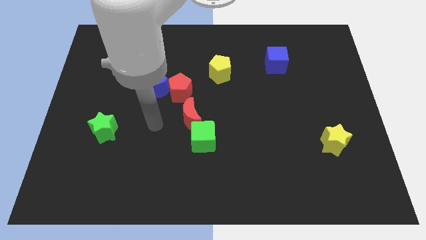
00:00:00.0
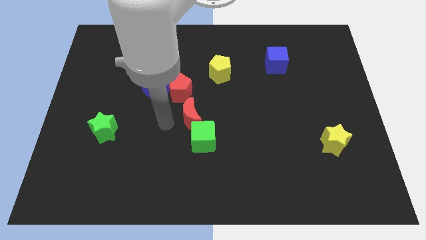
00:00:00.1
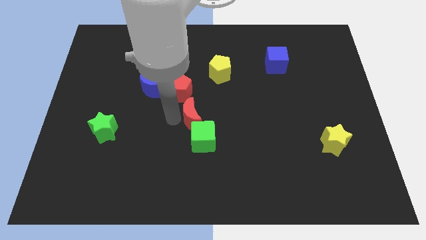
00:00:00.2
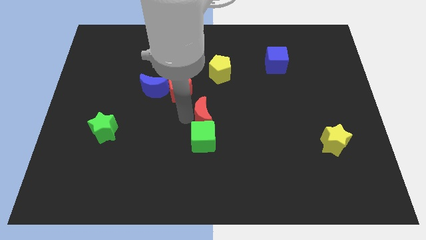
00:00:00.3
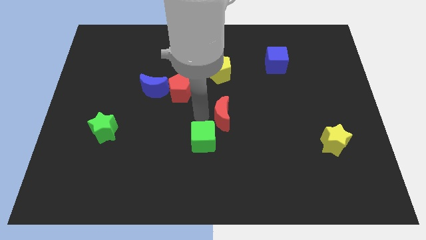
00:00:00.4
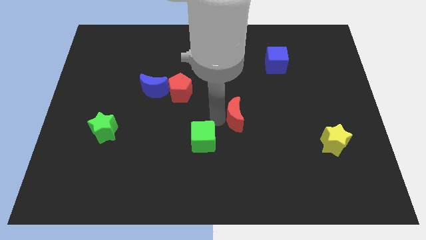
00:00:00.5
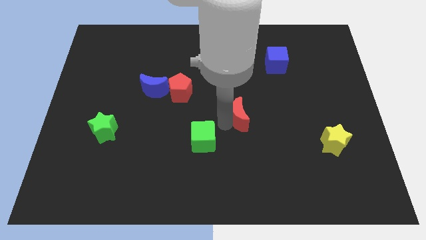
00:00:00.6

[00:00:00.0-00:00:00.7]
move the green cube away from the red moon

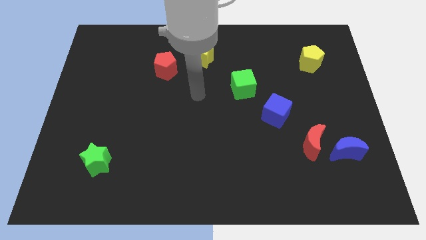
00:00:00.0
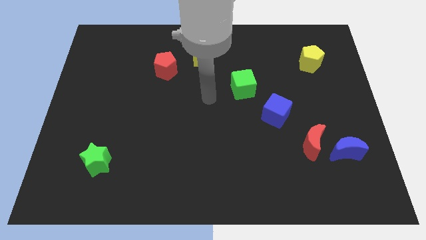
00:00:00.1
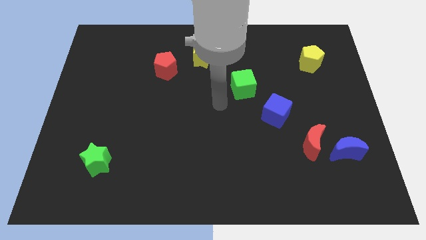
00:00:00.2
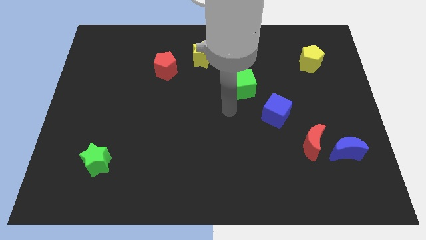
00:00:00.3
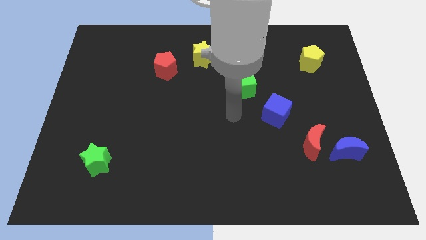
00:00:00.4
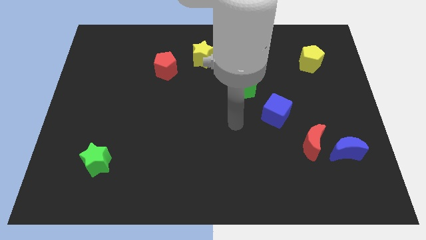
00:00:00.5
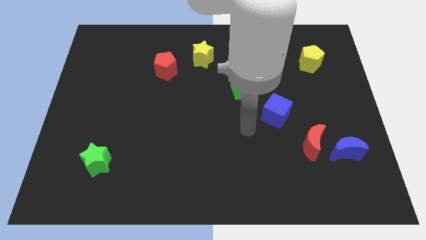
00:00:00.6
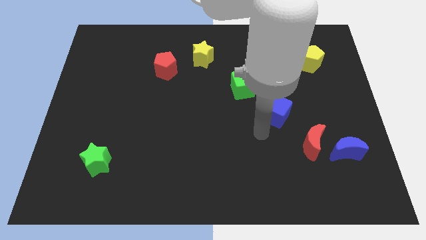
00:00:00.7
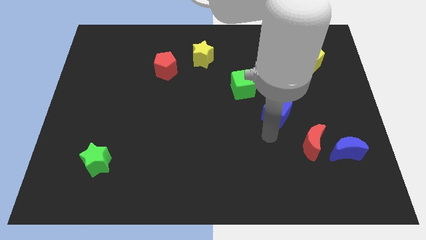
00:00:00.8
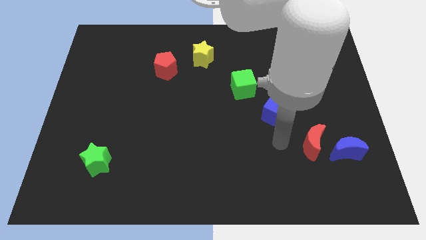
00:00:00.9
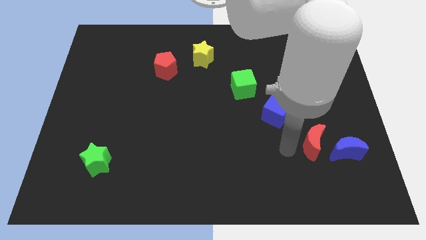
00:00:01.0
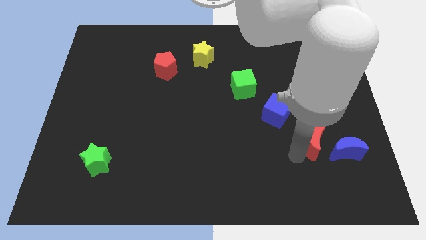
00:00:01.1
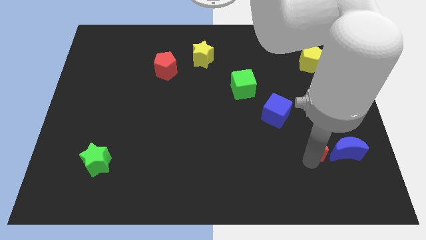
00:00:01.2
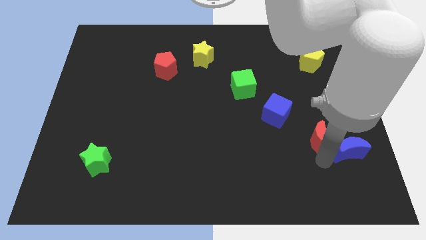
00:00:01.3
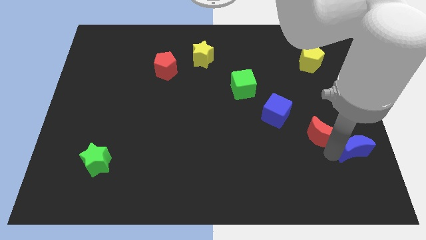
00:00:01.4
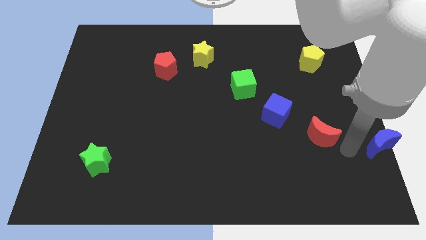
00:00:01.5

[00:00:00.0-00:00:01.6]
pull the red moon apart from the blue moon

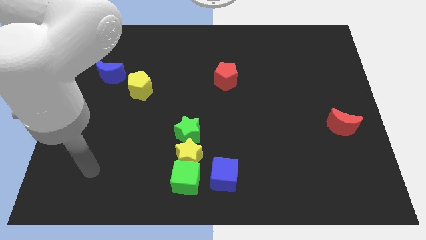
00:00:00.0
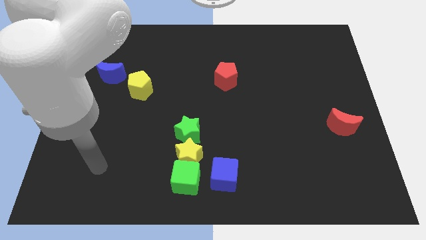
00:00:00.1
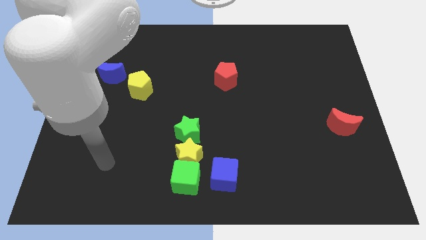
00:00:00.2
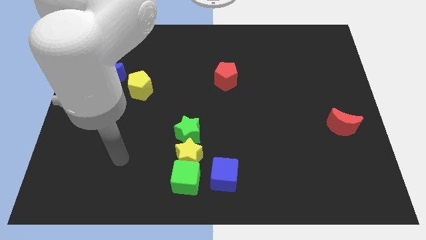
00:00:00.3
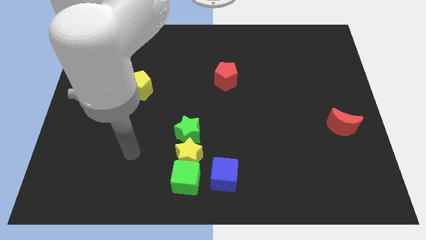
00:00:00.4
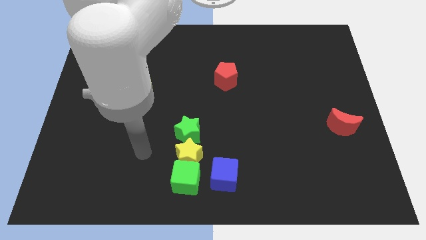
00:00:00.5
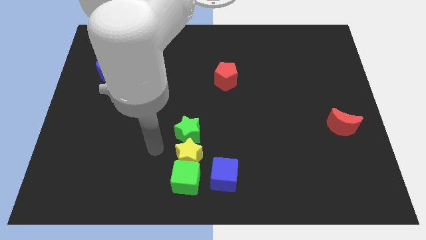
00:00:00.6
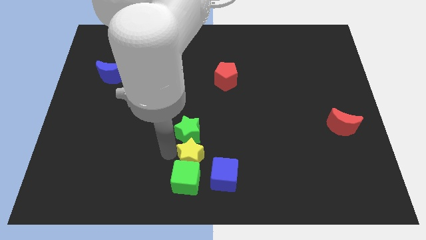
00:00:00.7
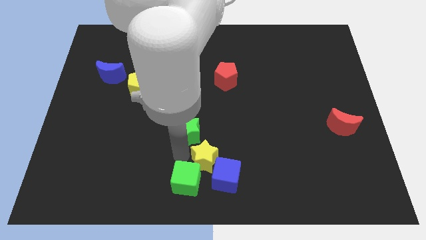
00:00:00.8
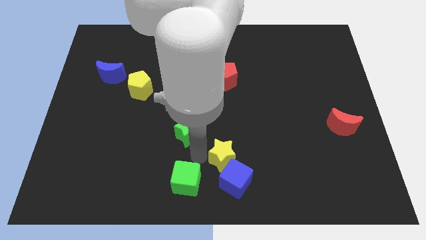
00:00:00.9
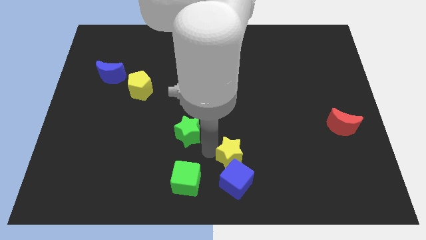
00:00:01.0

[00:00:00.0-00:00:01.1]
pull the green star apart from the yellow star

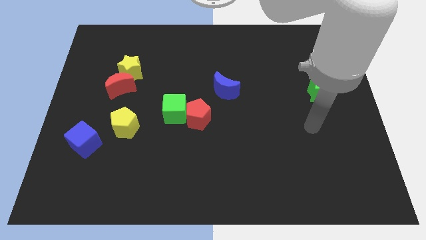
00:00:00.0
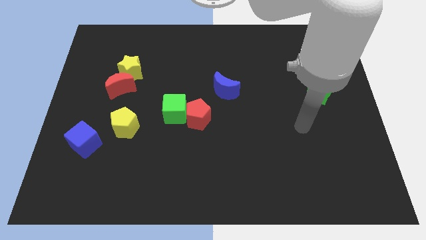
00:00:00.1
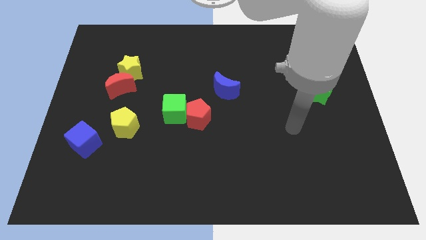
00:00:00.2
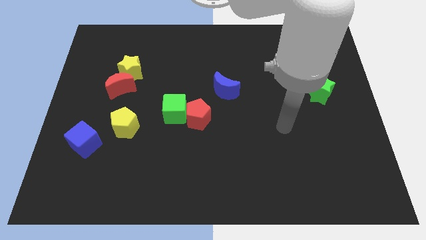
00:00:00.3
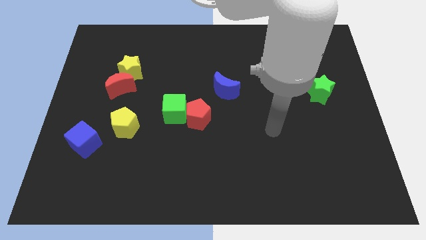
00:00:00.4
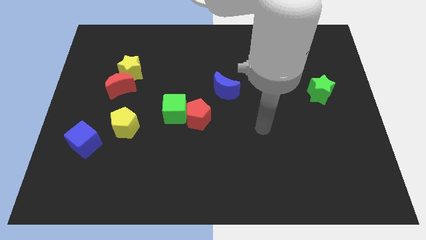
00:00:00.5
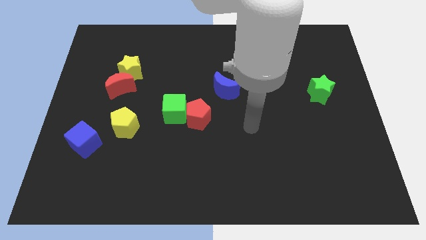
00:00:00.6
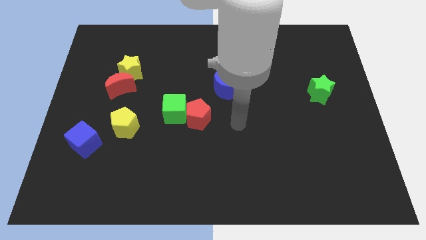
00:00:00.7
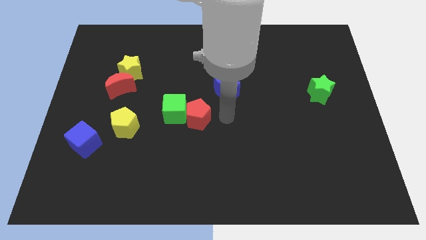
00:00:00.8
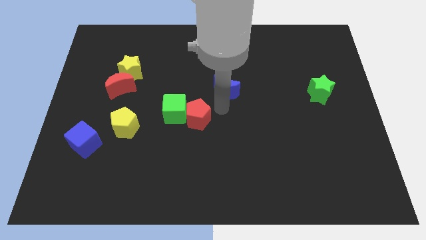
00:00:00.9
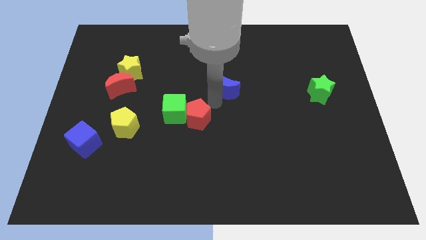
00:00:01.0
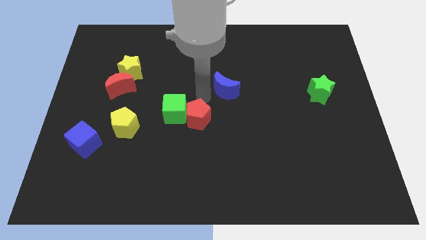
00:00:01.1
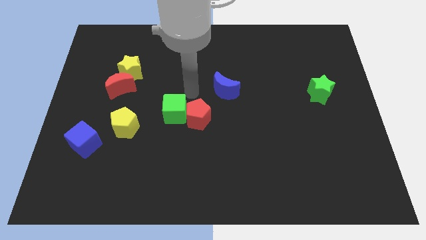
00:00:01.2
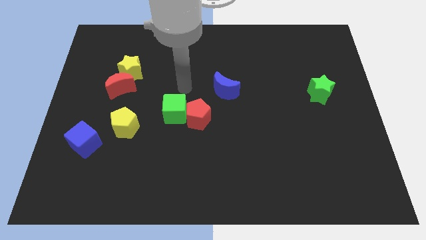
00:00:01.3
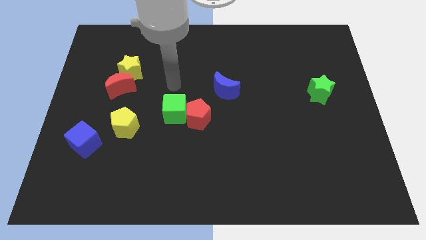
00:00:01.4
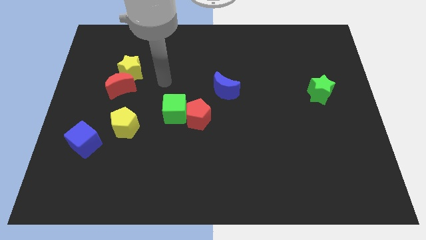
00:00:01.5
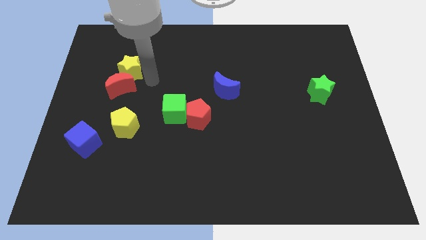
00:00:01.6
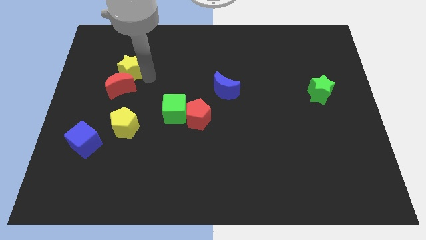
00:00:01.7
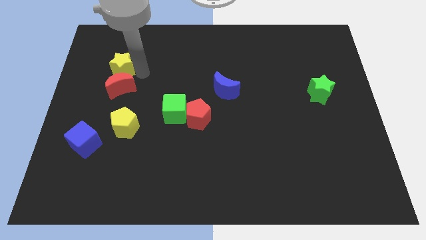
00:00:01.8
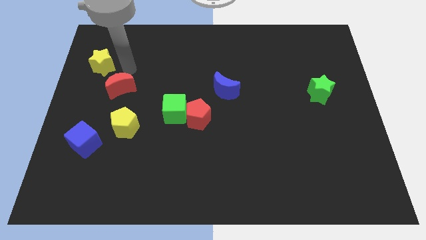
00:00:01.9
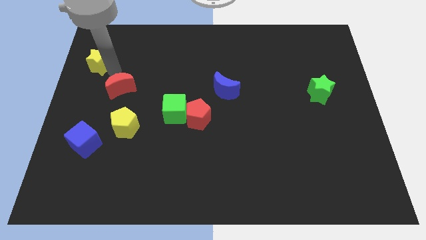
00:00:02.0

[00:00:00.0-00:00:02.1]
separate the red moon from the yellow star

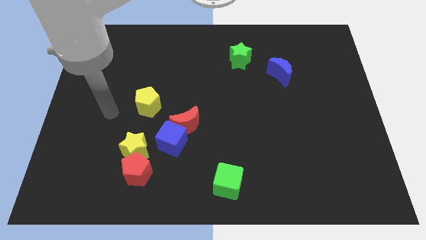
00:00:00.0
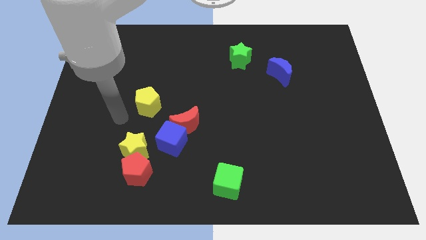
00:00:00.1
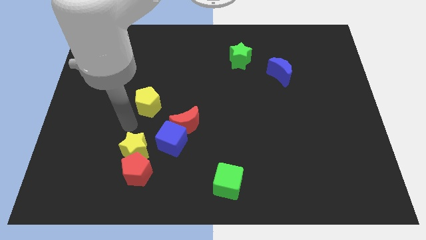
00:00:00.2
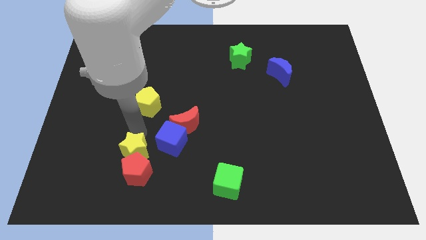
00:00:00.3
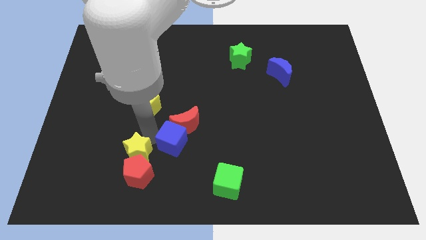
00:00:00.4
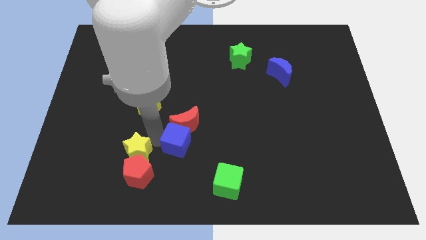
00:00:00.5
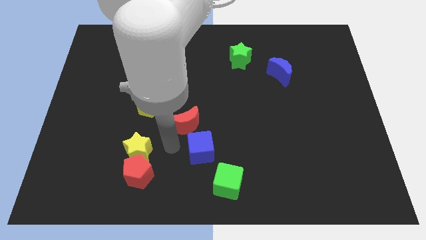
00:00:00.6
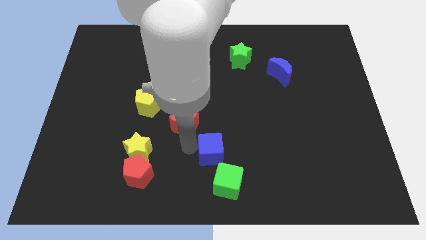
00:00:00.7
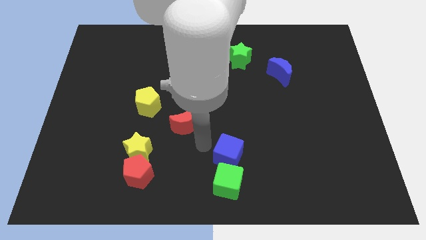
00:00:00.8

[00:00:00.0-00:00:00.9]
separate the red moon from the blue cube

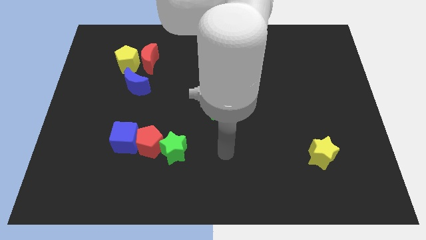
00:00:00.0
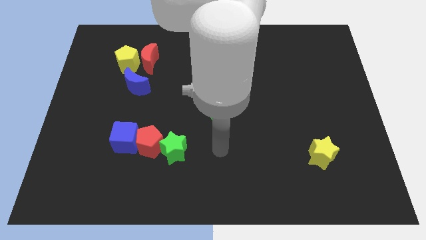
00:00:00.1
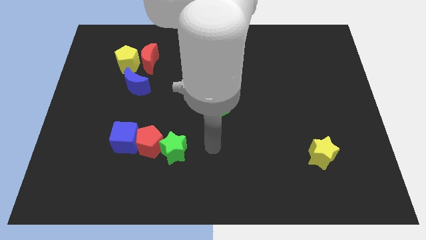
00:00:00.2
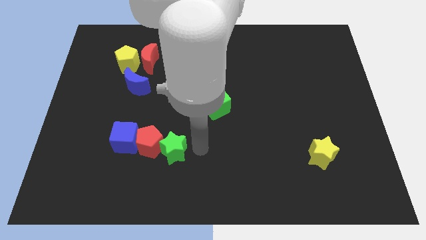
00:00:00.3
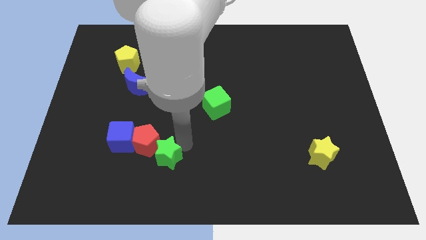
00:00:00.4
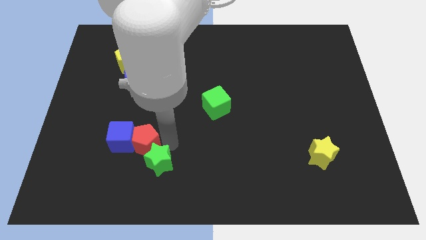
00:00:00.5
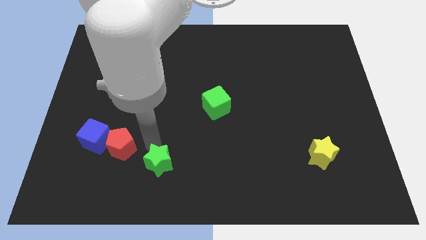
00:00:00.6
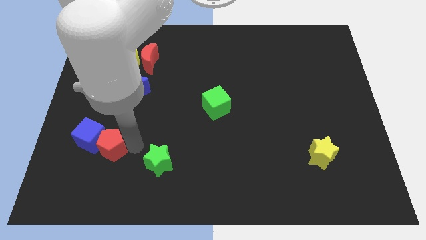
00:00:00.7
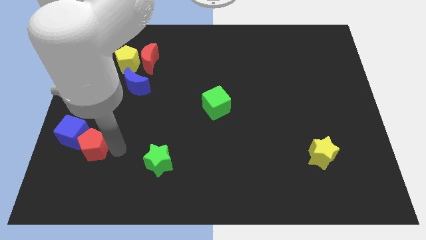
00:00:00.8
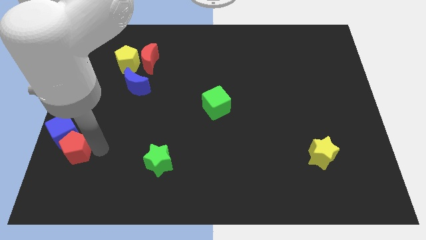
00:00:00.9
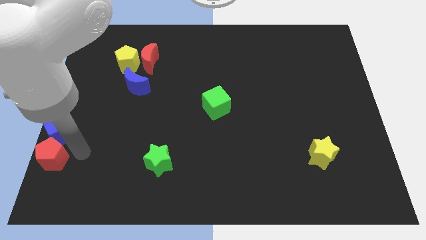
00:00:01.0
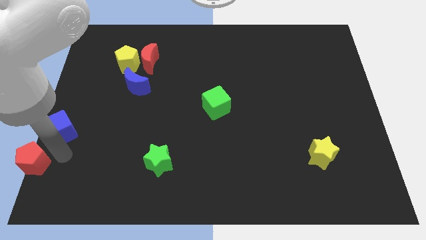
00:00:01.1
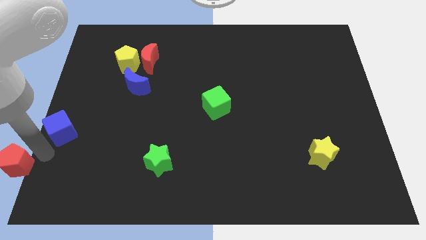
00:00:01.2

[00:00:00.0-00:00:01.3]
move the blue cube away from the red pentagon

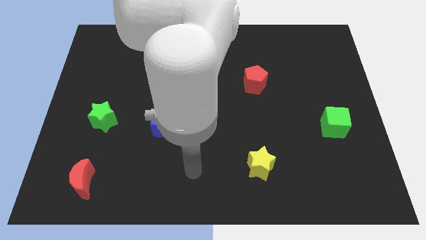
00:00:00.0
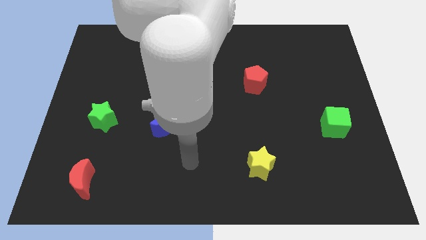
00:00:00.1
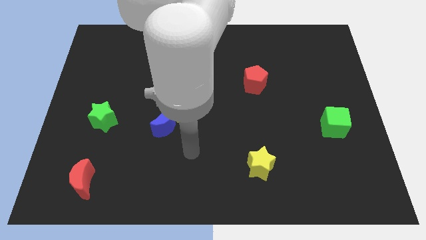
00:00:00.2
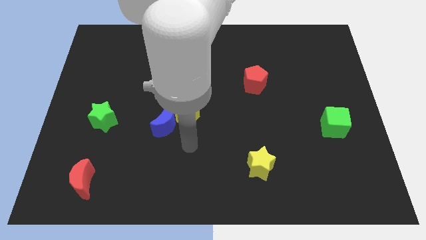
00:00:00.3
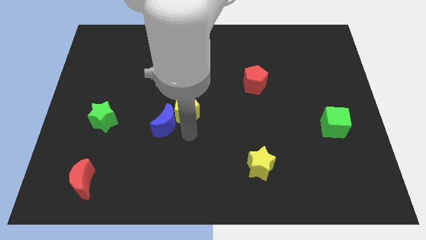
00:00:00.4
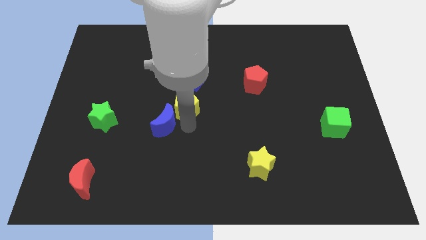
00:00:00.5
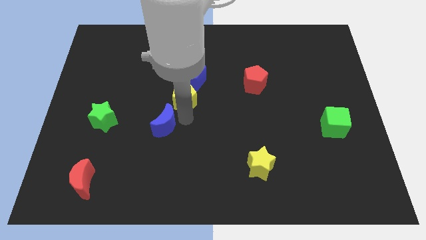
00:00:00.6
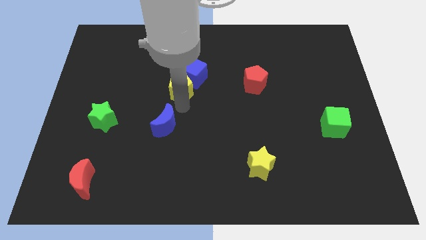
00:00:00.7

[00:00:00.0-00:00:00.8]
pull the blue moon apart from the yellow pentagon

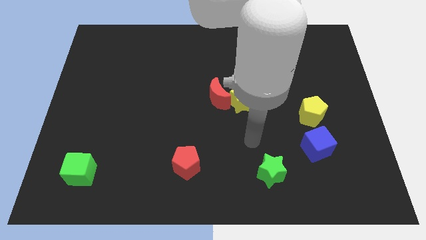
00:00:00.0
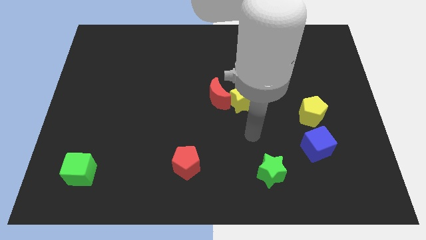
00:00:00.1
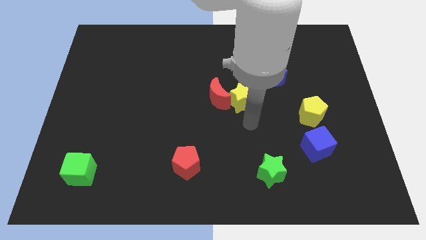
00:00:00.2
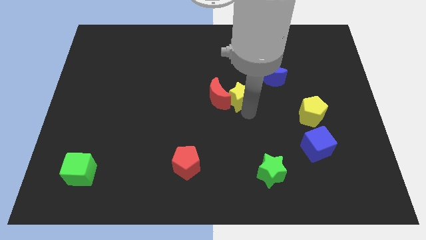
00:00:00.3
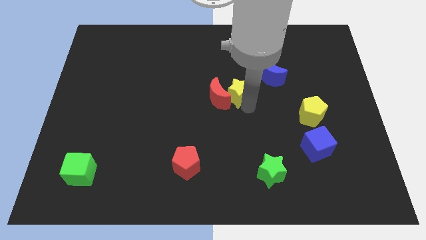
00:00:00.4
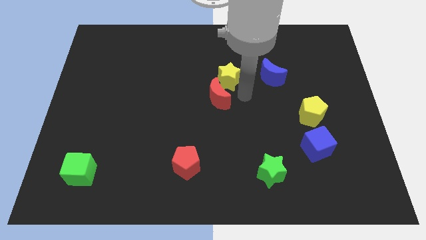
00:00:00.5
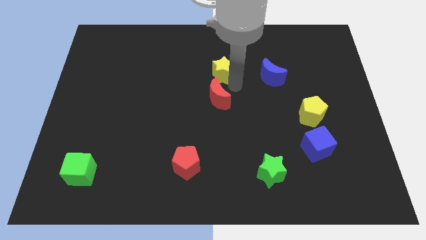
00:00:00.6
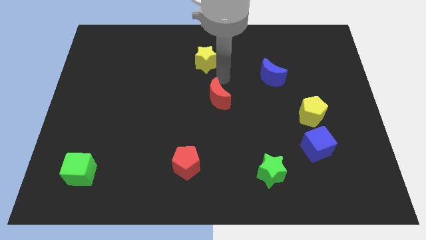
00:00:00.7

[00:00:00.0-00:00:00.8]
move the red moon away from the yellow star
